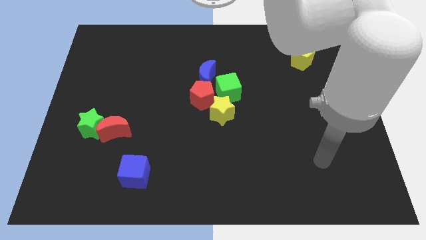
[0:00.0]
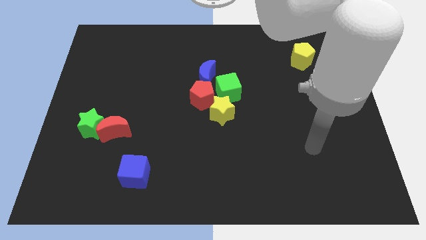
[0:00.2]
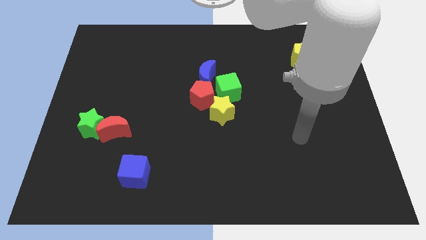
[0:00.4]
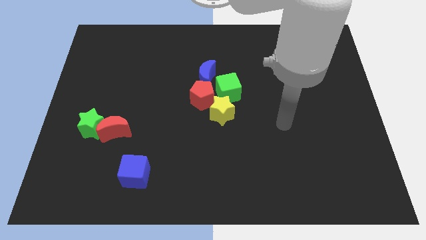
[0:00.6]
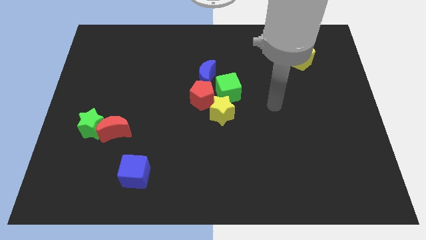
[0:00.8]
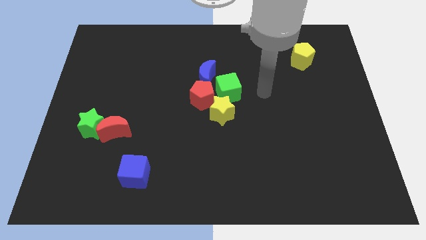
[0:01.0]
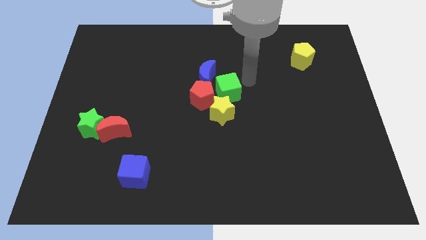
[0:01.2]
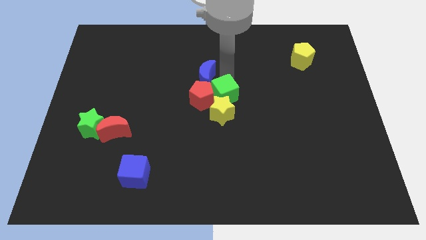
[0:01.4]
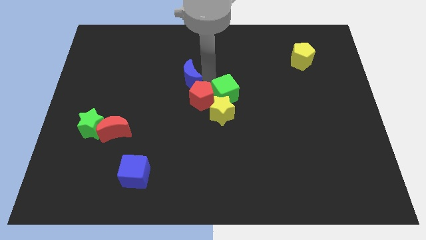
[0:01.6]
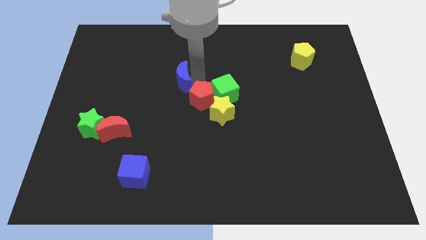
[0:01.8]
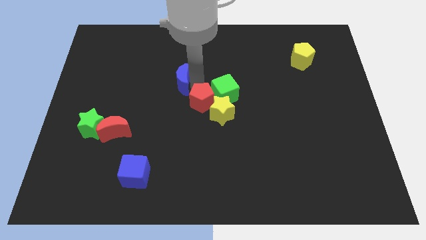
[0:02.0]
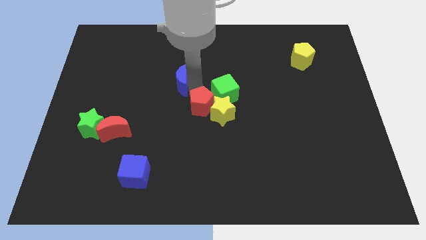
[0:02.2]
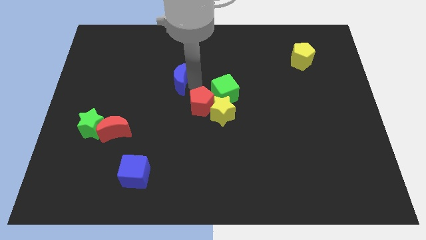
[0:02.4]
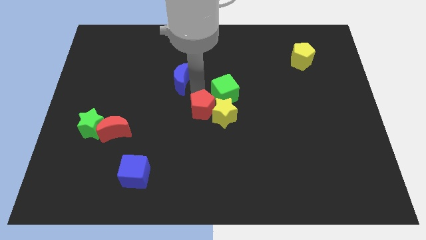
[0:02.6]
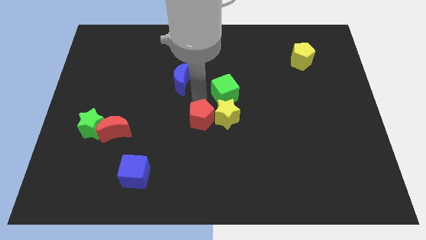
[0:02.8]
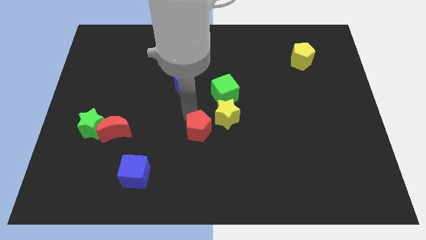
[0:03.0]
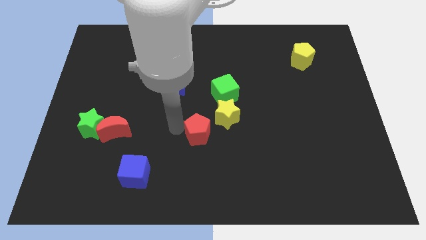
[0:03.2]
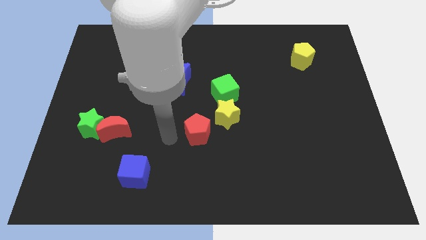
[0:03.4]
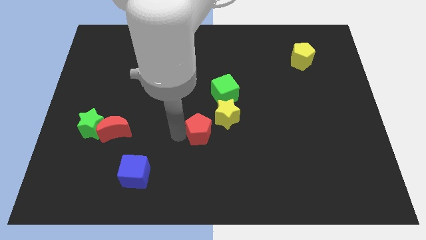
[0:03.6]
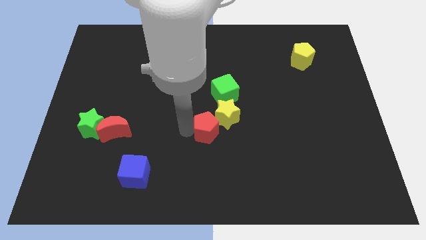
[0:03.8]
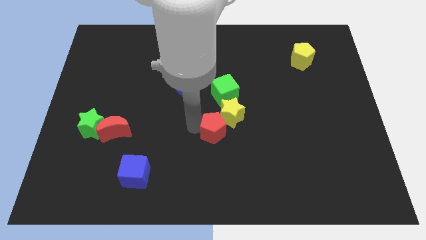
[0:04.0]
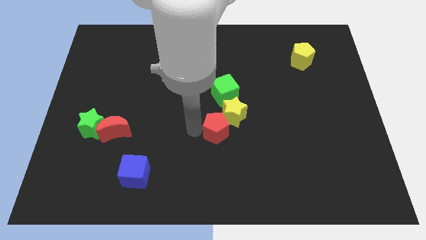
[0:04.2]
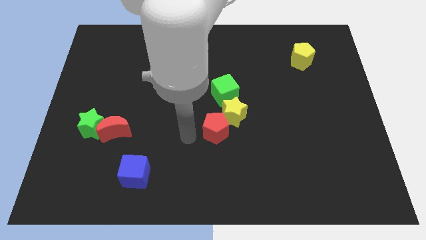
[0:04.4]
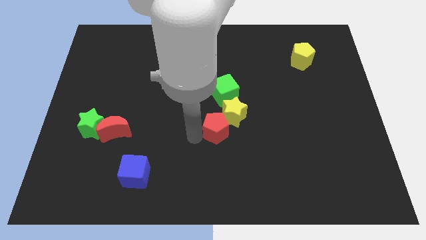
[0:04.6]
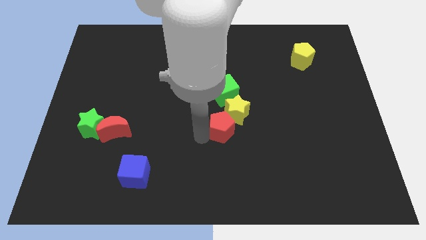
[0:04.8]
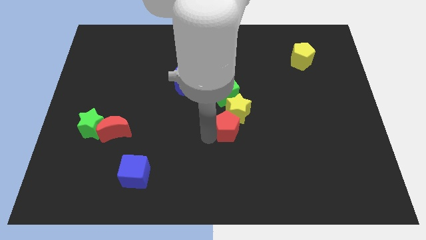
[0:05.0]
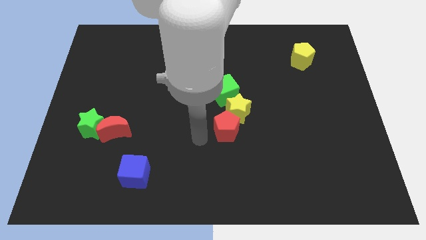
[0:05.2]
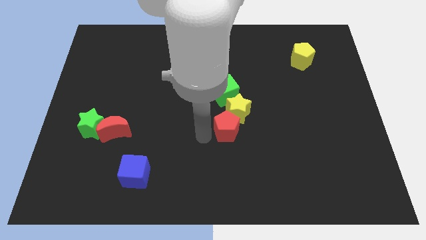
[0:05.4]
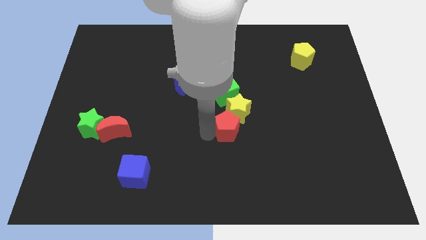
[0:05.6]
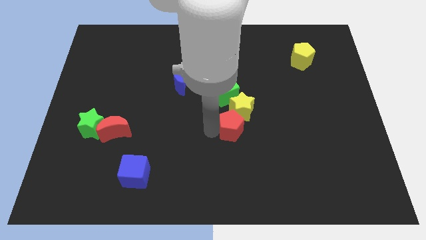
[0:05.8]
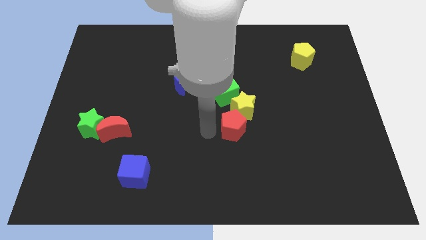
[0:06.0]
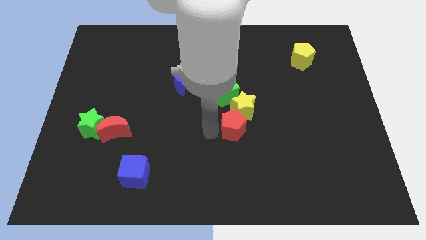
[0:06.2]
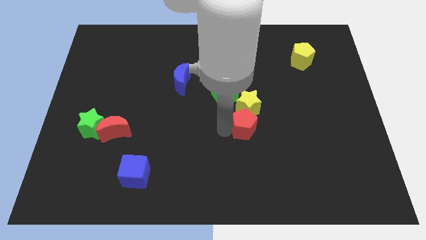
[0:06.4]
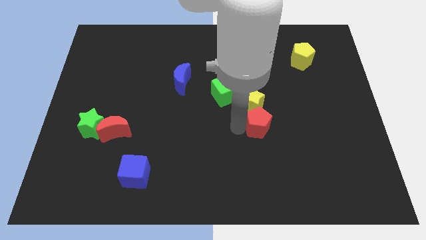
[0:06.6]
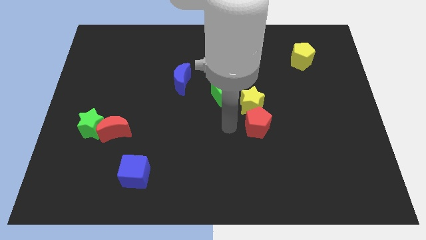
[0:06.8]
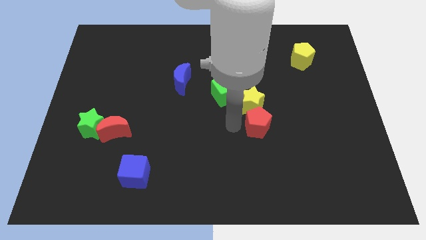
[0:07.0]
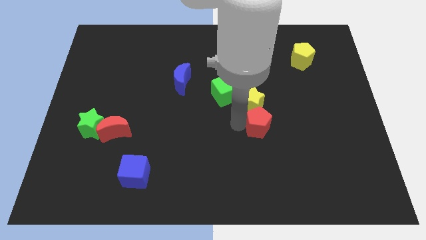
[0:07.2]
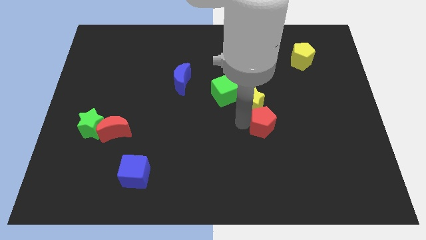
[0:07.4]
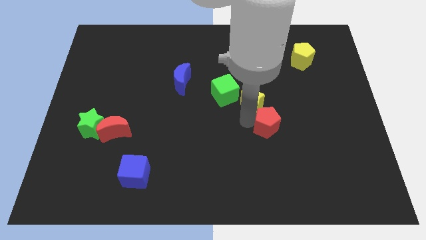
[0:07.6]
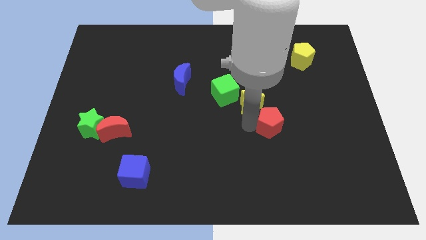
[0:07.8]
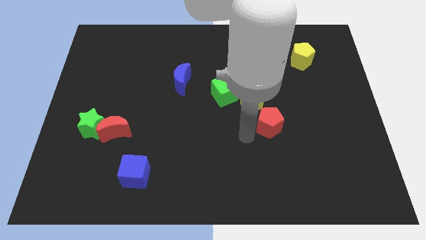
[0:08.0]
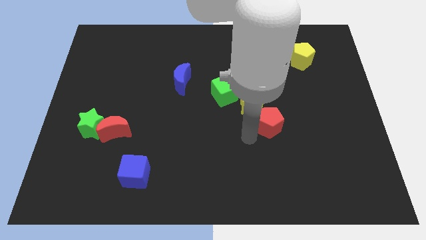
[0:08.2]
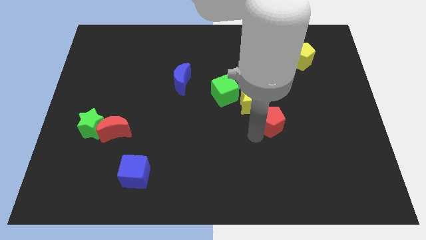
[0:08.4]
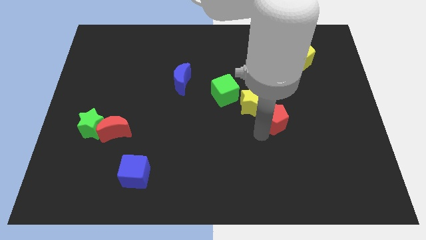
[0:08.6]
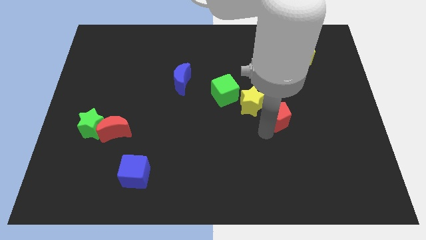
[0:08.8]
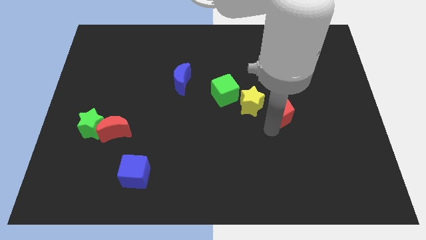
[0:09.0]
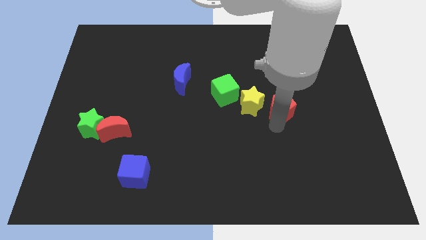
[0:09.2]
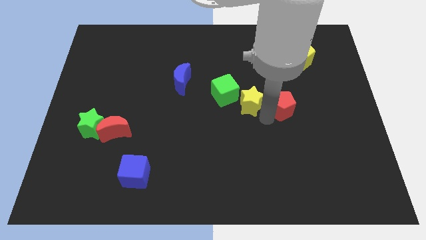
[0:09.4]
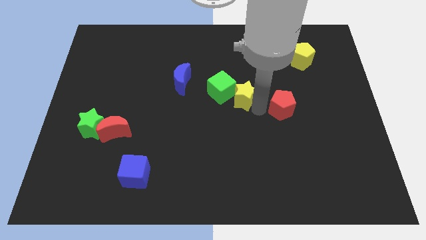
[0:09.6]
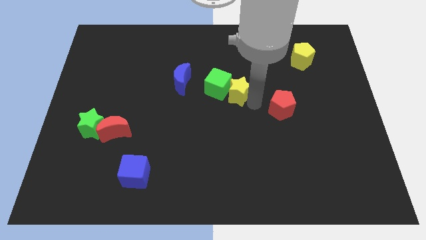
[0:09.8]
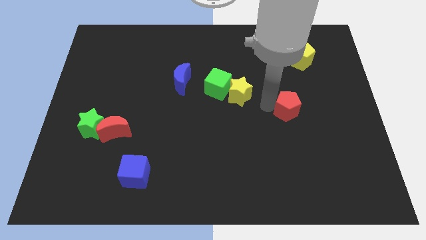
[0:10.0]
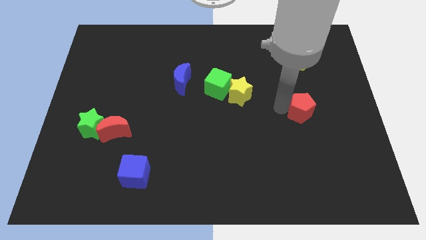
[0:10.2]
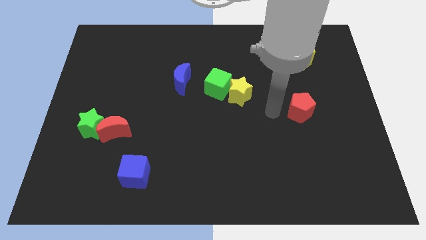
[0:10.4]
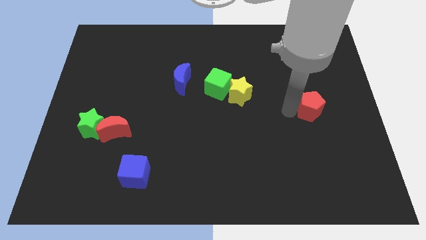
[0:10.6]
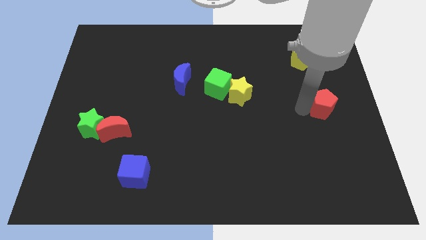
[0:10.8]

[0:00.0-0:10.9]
put the red pentagon to the right side of the board

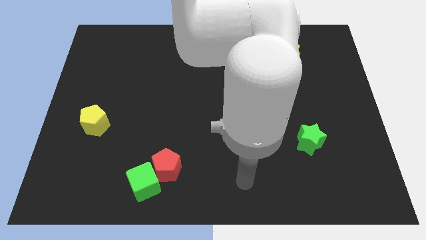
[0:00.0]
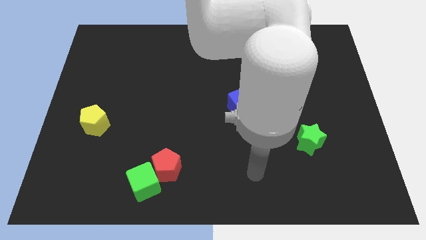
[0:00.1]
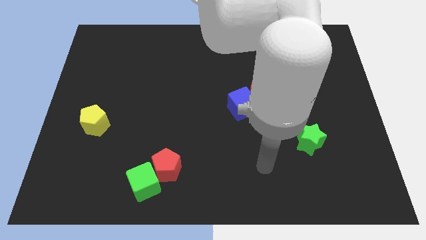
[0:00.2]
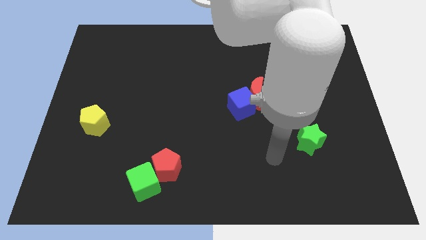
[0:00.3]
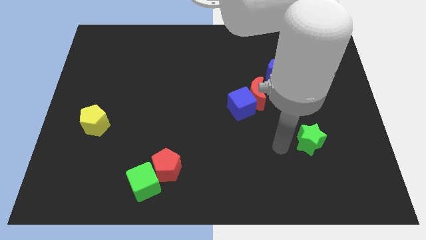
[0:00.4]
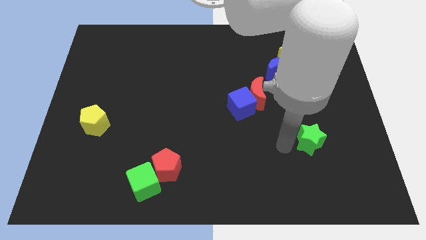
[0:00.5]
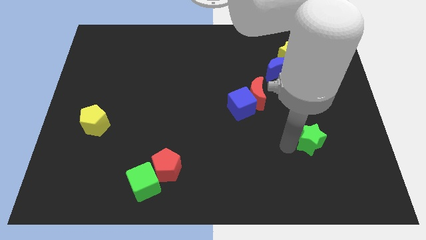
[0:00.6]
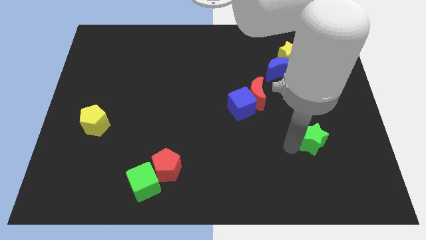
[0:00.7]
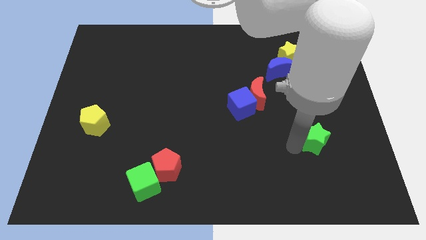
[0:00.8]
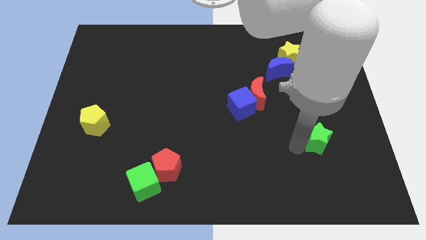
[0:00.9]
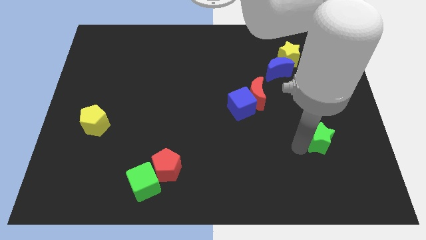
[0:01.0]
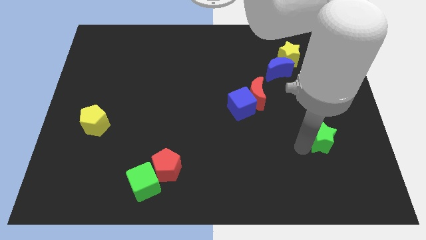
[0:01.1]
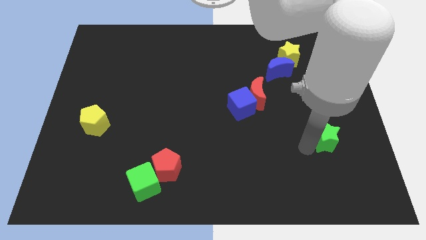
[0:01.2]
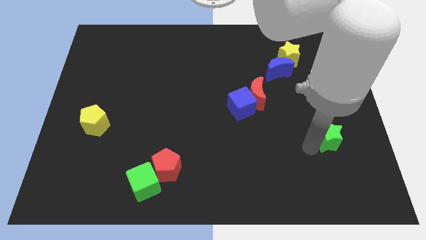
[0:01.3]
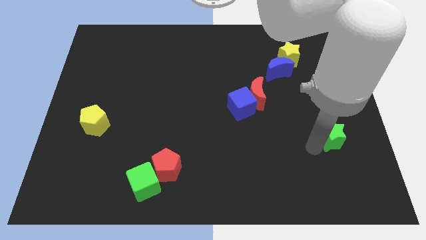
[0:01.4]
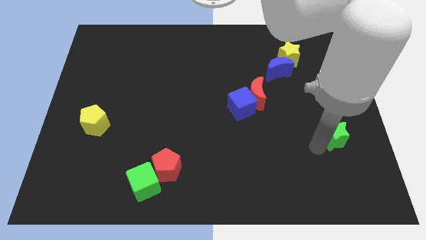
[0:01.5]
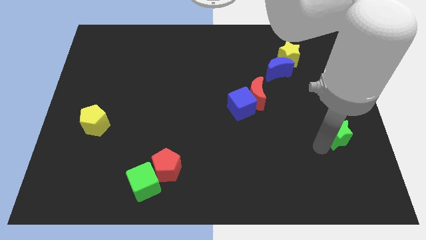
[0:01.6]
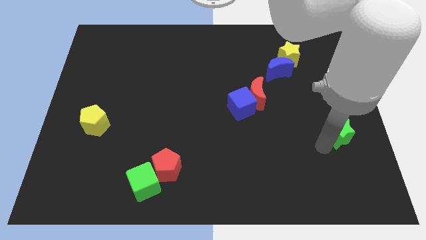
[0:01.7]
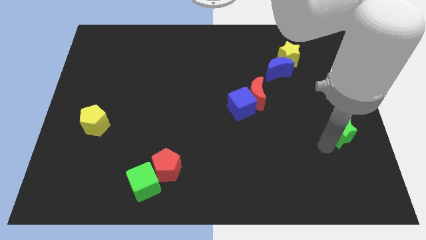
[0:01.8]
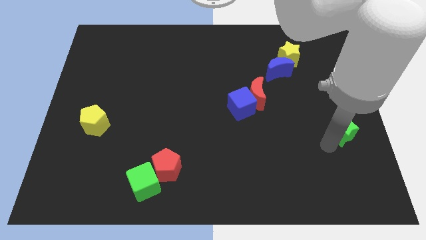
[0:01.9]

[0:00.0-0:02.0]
move the green star to the center right
